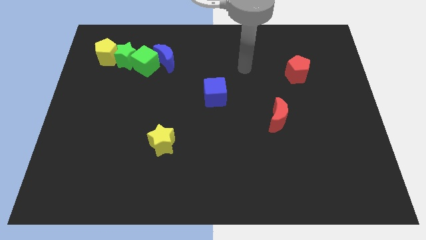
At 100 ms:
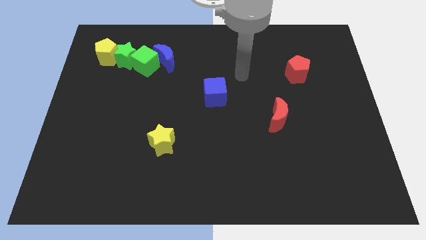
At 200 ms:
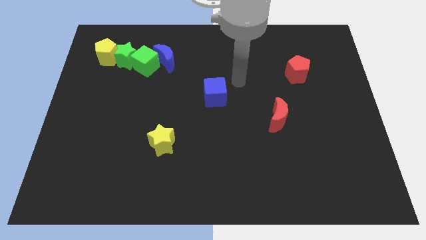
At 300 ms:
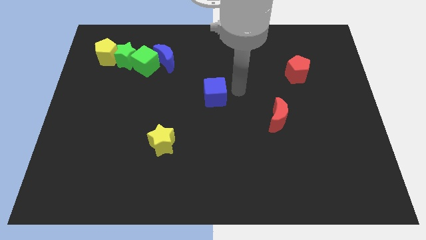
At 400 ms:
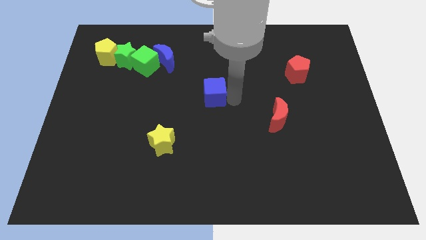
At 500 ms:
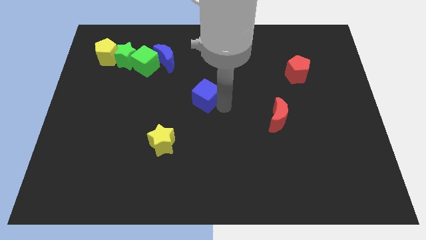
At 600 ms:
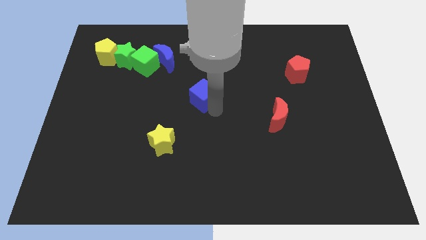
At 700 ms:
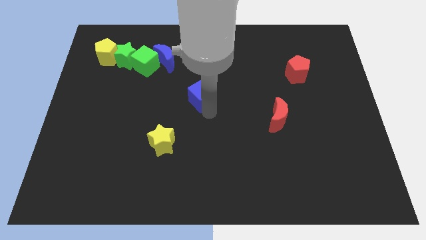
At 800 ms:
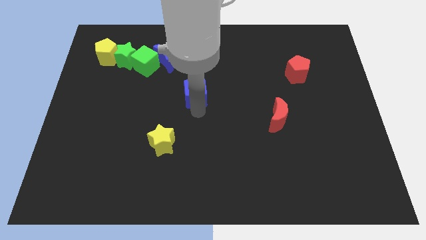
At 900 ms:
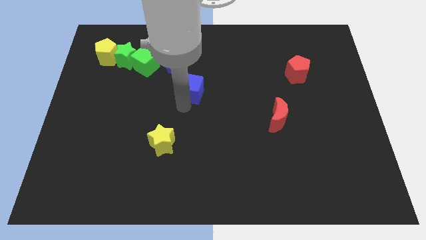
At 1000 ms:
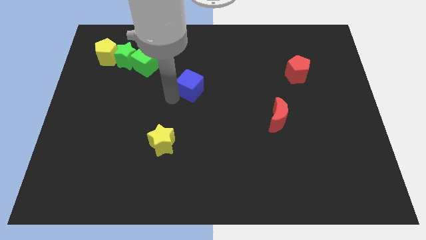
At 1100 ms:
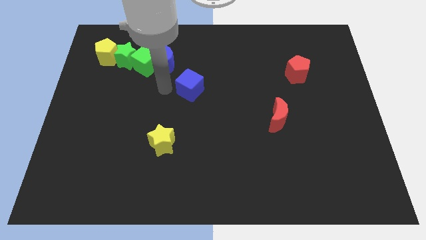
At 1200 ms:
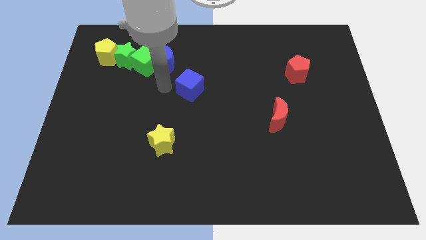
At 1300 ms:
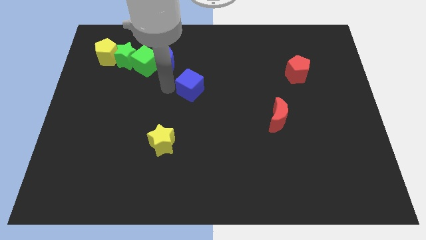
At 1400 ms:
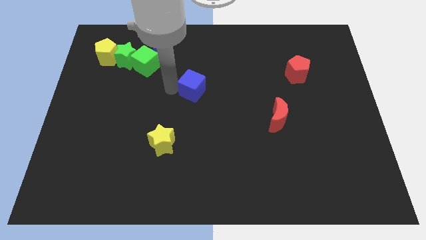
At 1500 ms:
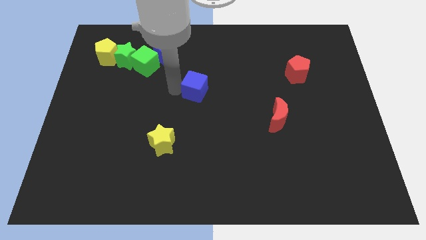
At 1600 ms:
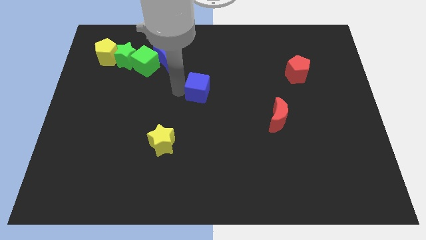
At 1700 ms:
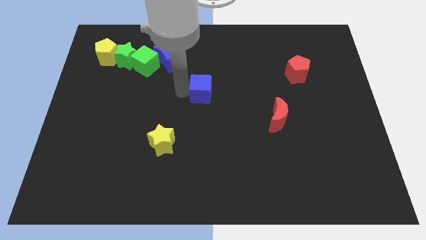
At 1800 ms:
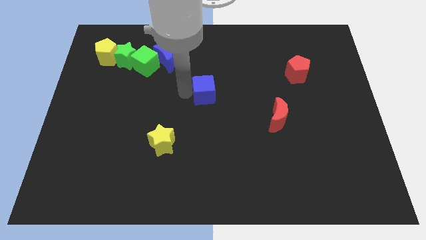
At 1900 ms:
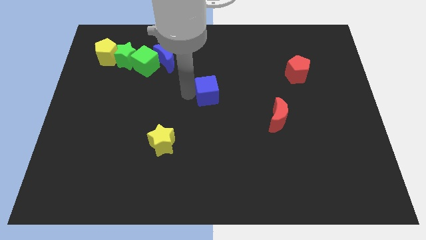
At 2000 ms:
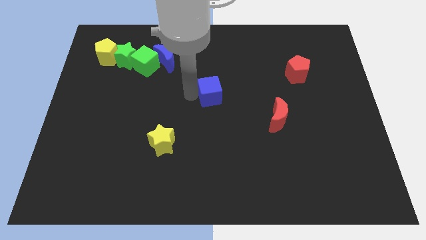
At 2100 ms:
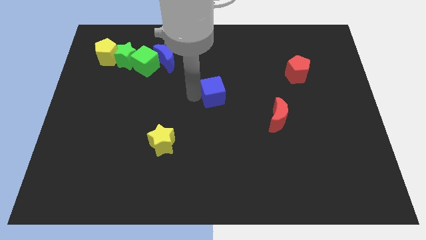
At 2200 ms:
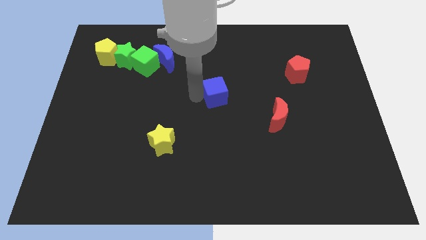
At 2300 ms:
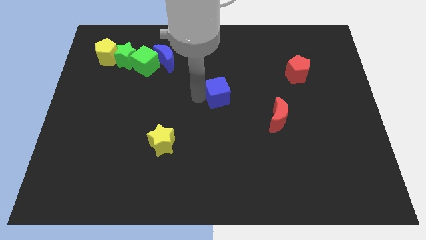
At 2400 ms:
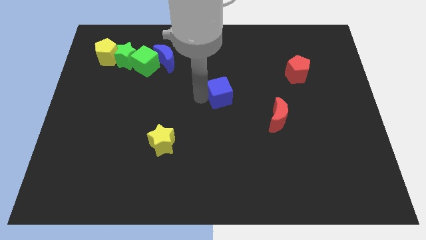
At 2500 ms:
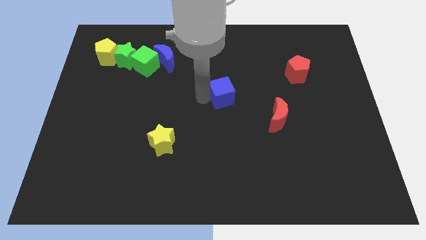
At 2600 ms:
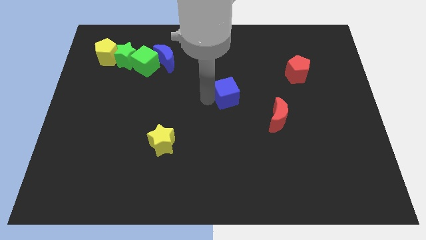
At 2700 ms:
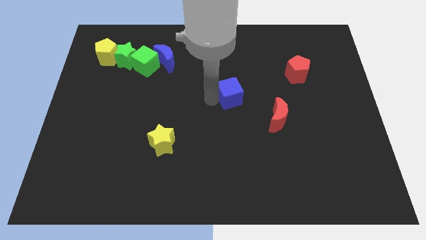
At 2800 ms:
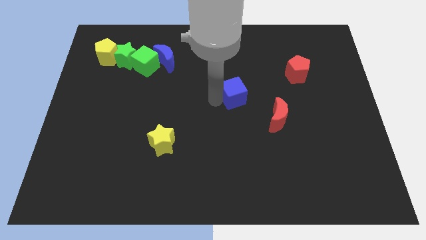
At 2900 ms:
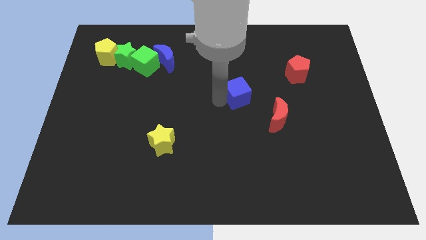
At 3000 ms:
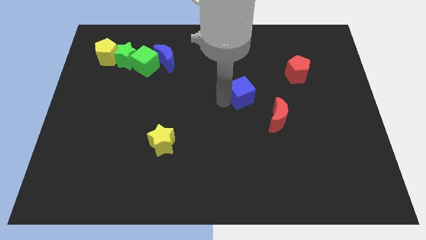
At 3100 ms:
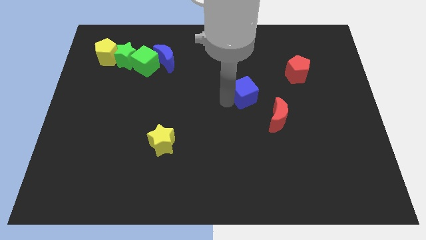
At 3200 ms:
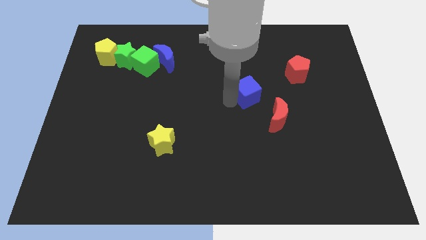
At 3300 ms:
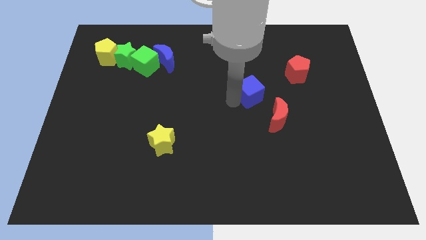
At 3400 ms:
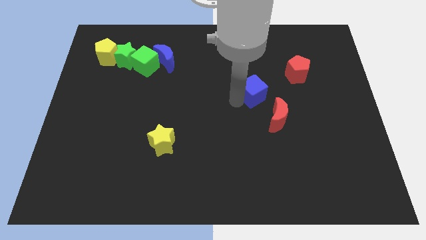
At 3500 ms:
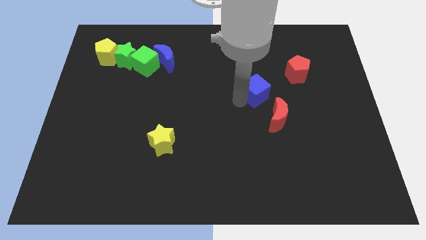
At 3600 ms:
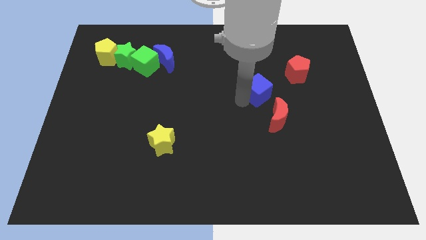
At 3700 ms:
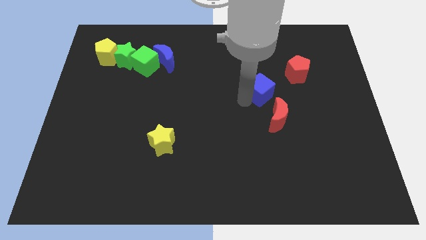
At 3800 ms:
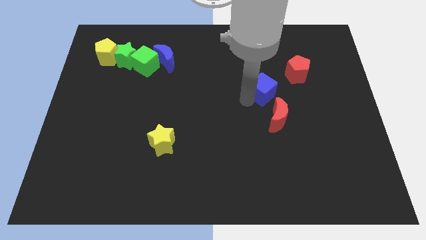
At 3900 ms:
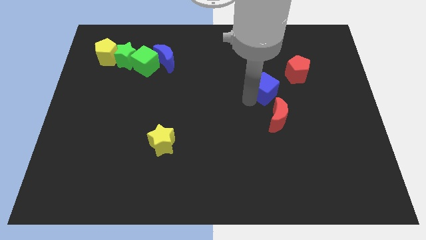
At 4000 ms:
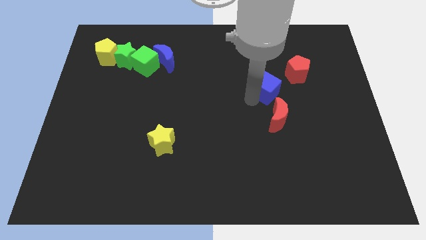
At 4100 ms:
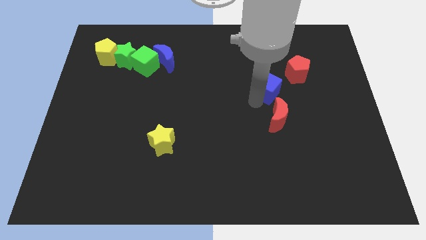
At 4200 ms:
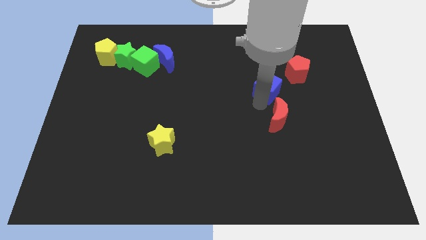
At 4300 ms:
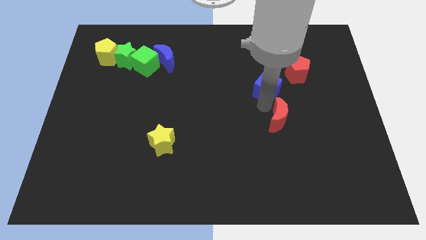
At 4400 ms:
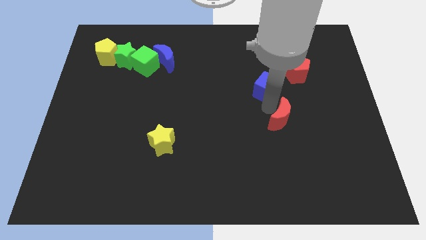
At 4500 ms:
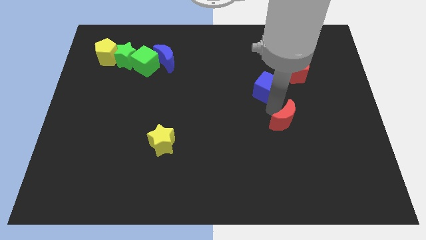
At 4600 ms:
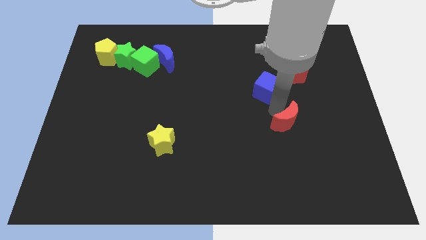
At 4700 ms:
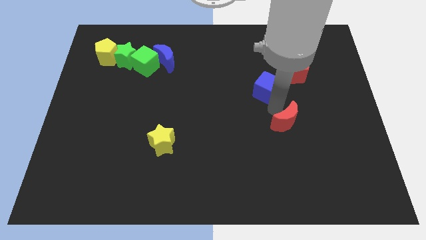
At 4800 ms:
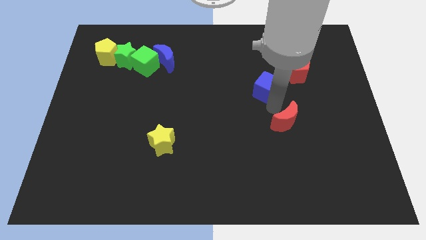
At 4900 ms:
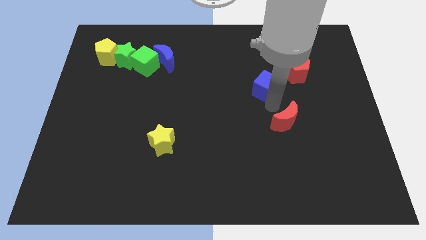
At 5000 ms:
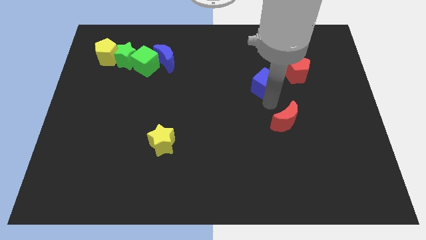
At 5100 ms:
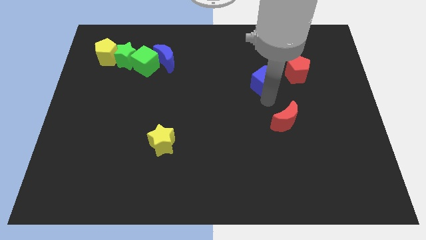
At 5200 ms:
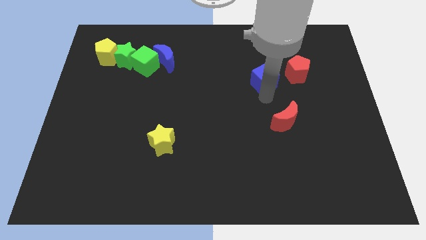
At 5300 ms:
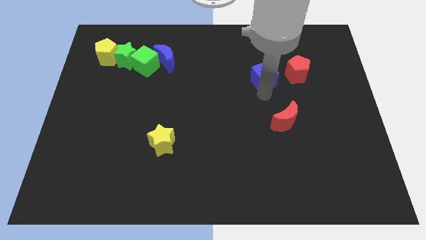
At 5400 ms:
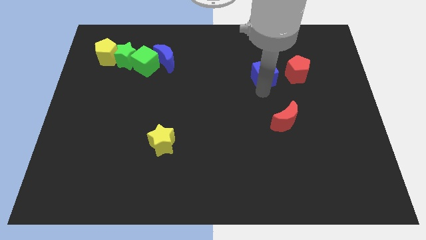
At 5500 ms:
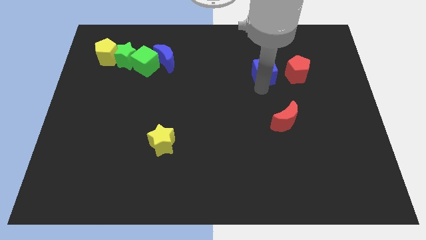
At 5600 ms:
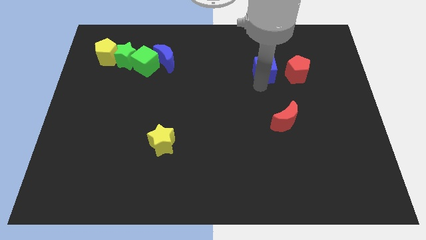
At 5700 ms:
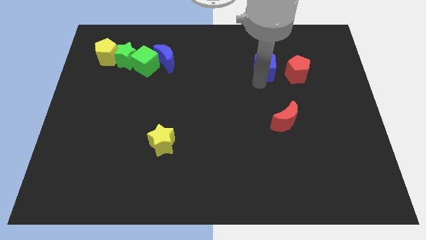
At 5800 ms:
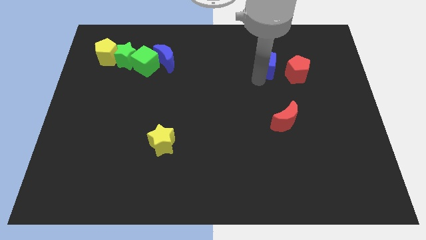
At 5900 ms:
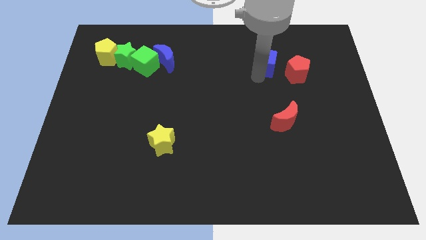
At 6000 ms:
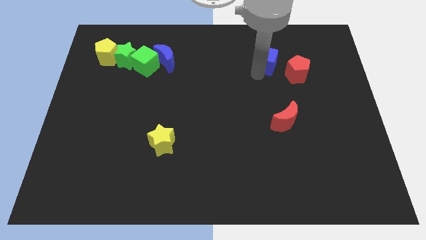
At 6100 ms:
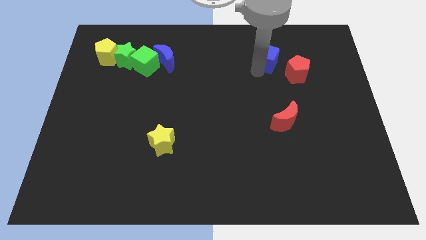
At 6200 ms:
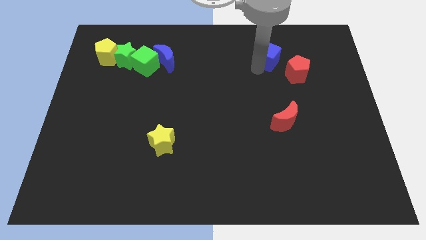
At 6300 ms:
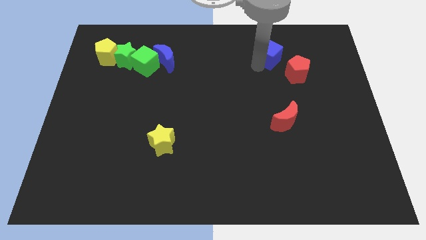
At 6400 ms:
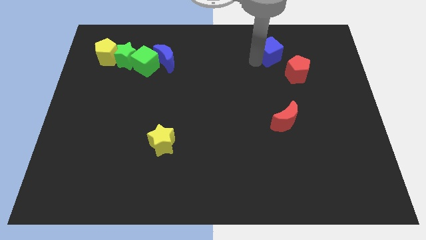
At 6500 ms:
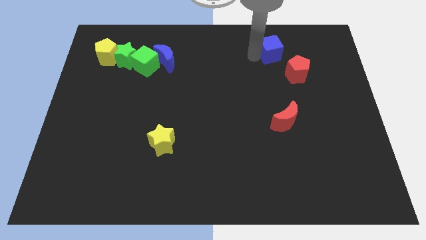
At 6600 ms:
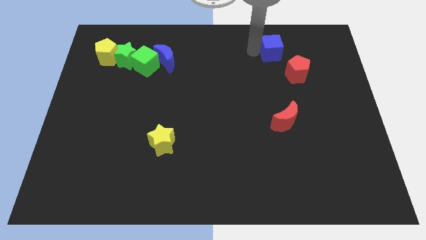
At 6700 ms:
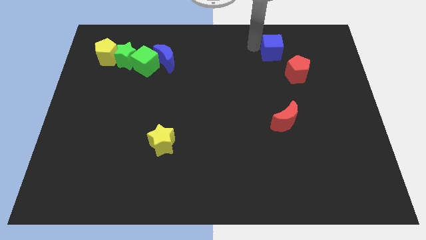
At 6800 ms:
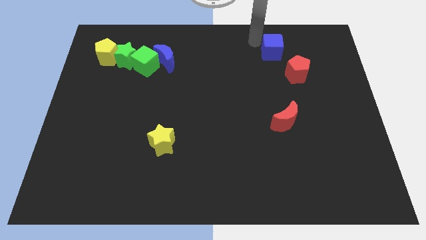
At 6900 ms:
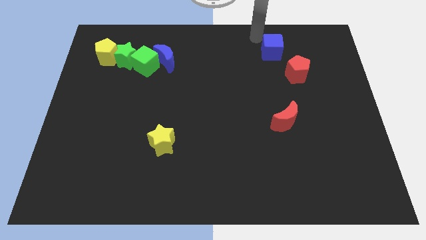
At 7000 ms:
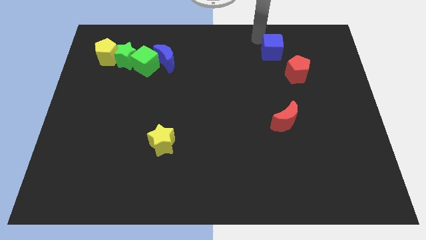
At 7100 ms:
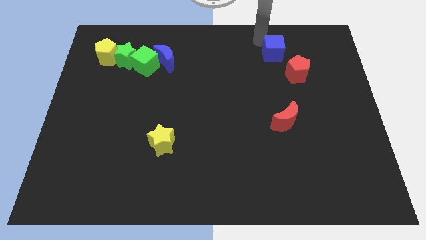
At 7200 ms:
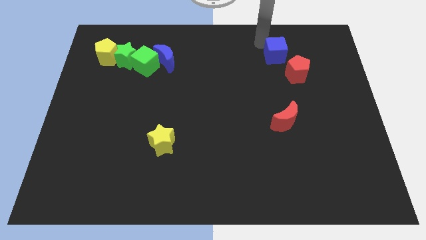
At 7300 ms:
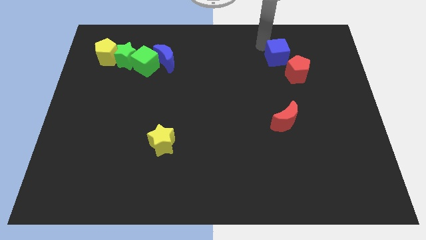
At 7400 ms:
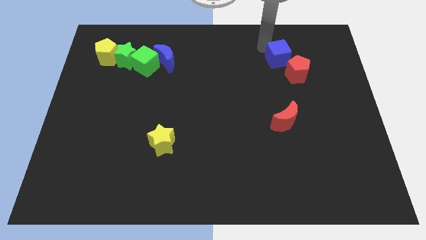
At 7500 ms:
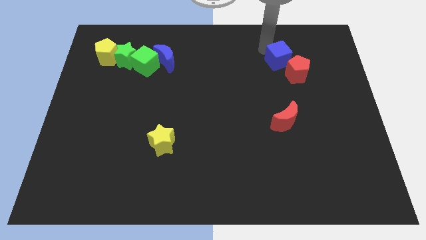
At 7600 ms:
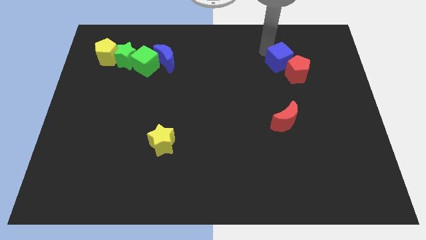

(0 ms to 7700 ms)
push the blue cube towards the red pentagon
